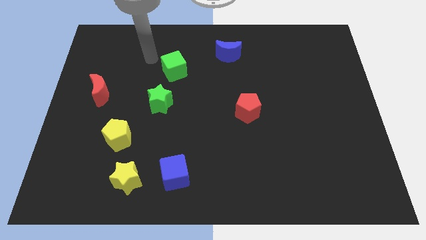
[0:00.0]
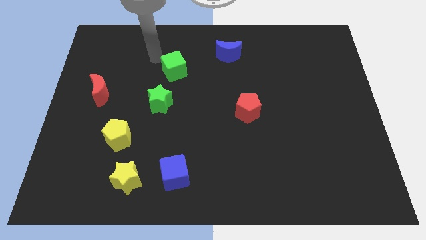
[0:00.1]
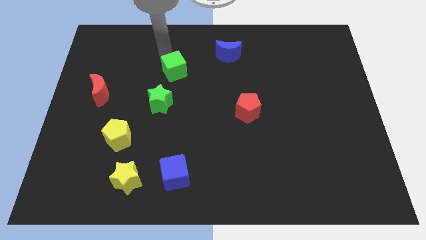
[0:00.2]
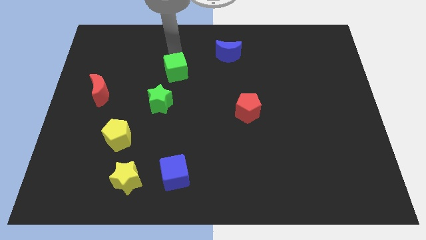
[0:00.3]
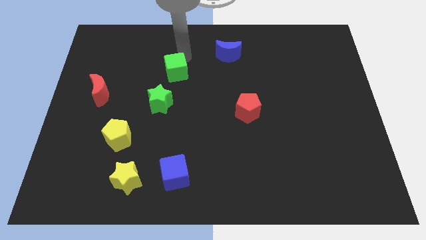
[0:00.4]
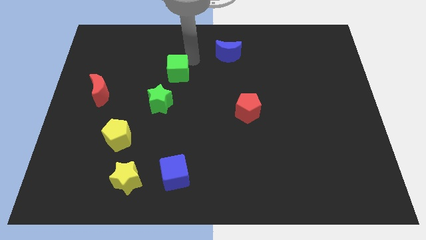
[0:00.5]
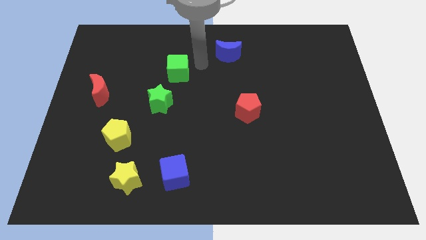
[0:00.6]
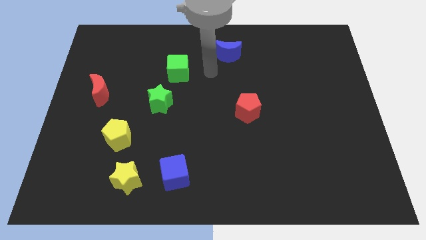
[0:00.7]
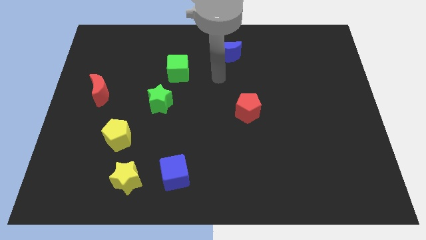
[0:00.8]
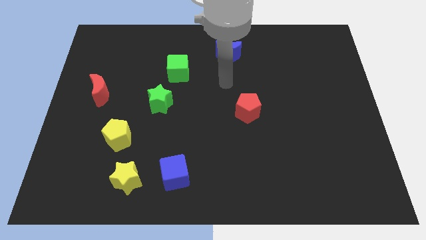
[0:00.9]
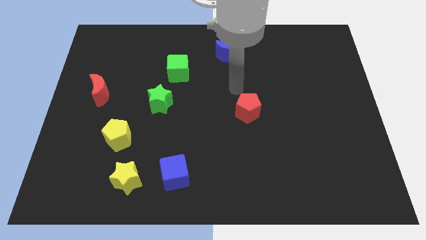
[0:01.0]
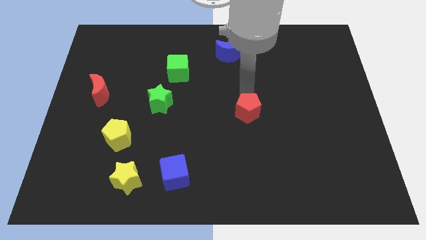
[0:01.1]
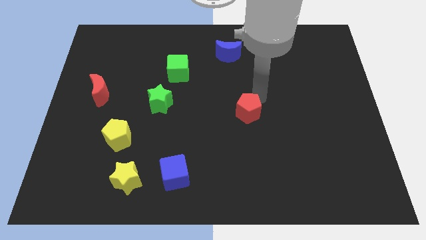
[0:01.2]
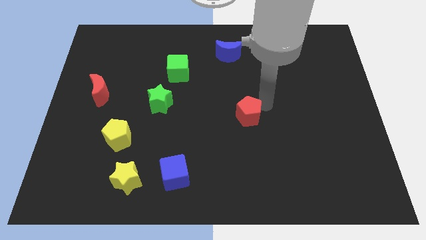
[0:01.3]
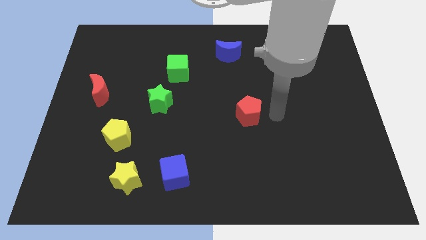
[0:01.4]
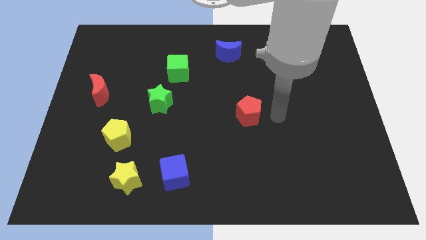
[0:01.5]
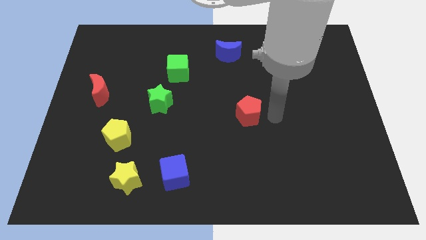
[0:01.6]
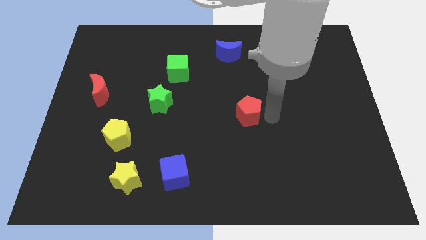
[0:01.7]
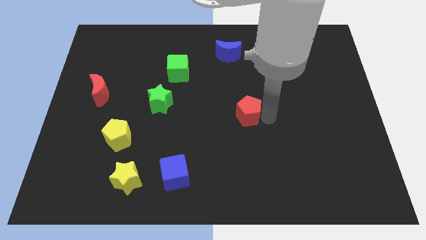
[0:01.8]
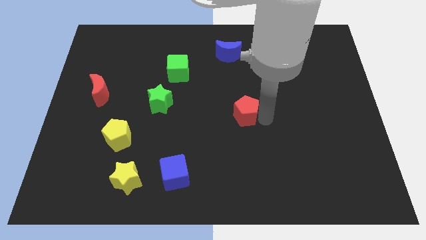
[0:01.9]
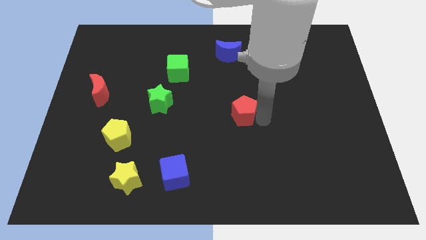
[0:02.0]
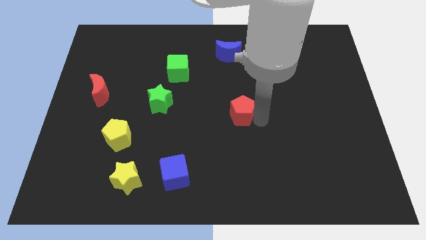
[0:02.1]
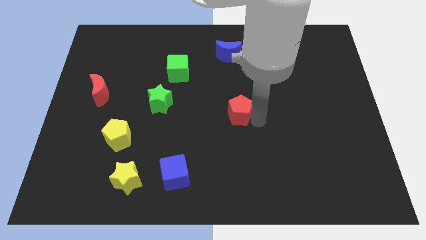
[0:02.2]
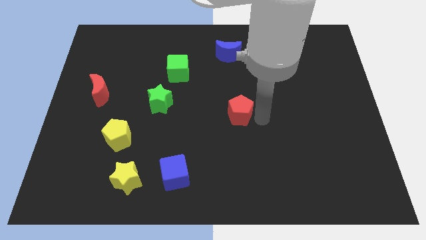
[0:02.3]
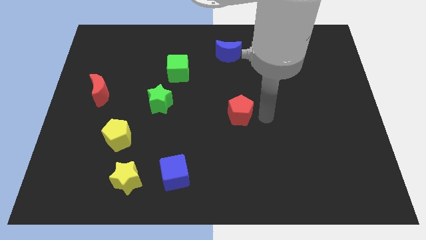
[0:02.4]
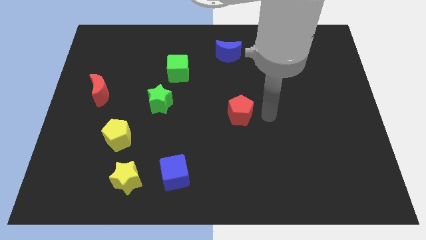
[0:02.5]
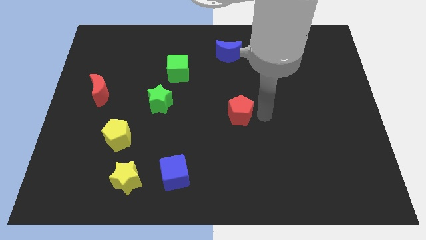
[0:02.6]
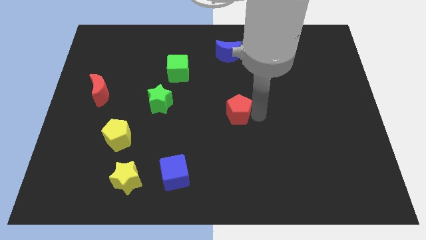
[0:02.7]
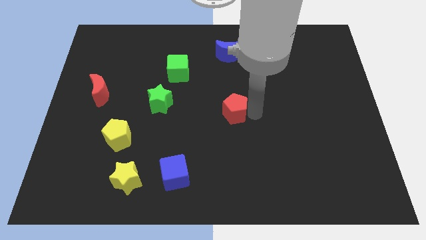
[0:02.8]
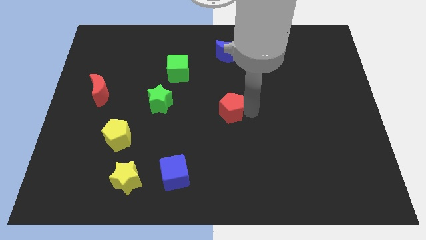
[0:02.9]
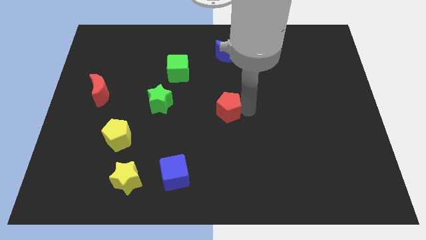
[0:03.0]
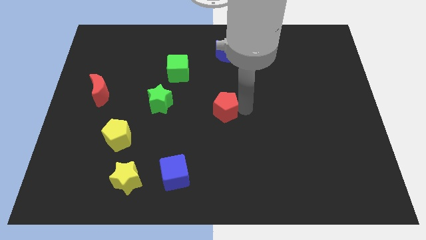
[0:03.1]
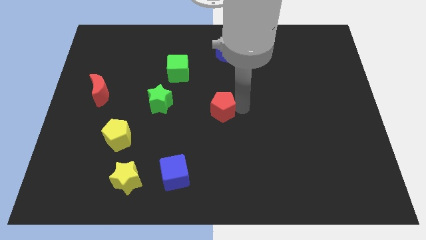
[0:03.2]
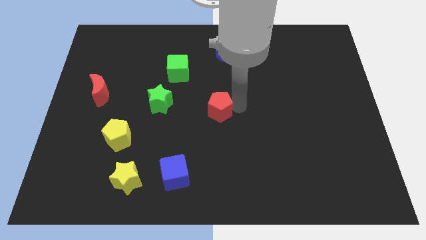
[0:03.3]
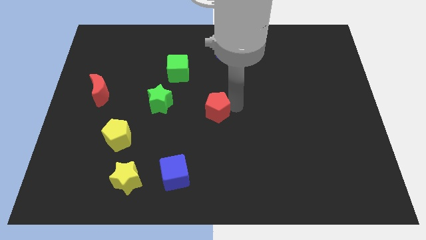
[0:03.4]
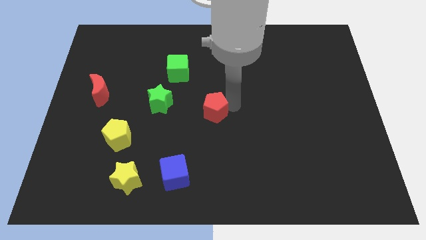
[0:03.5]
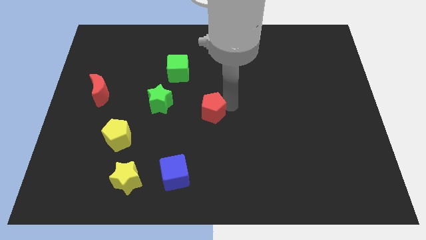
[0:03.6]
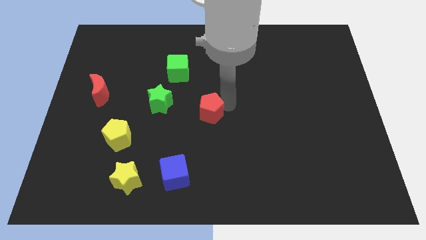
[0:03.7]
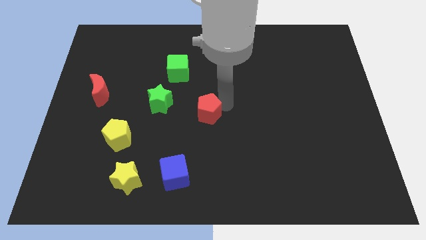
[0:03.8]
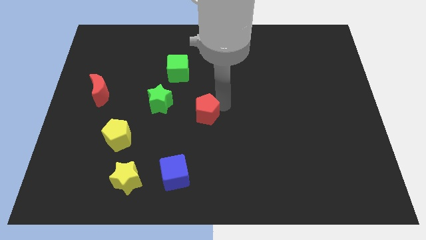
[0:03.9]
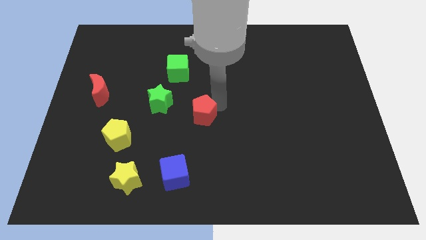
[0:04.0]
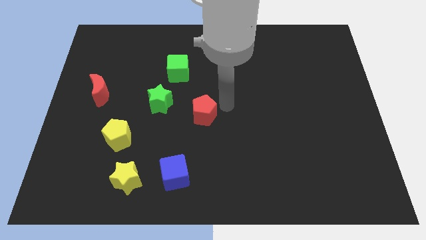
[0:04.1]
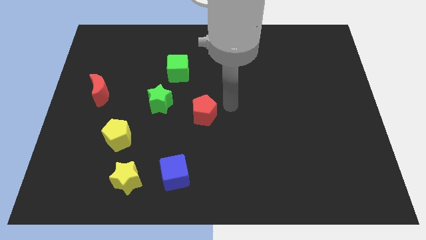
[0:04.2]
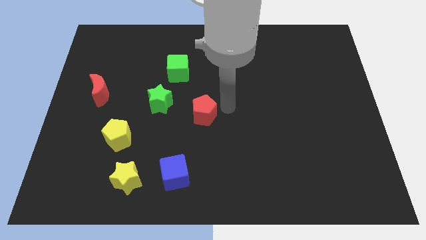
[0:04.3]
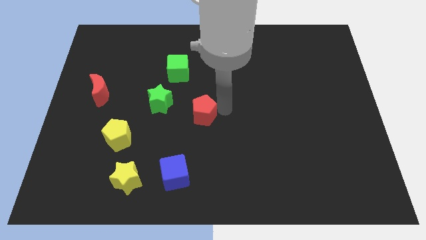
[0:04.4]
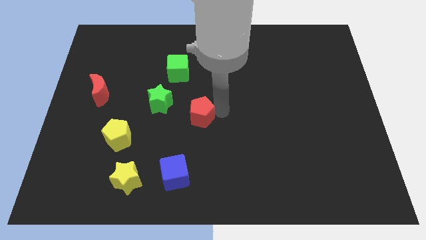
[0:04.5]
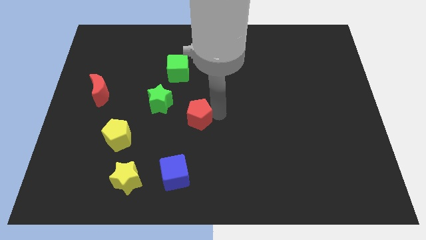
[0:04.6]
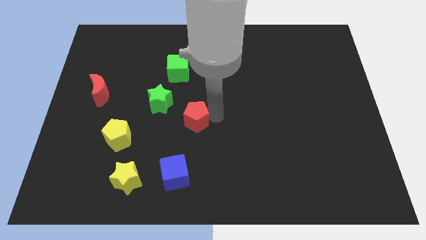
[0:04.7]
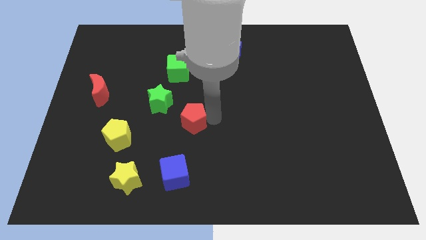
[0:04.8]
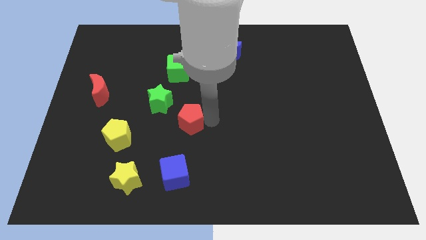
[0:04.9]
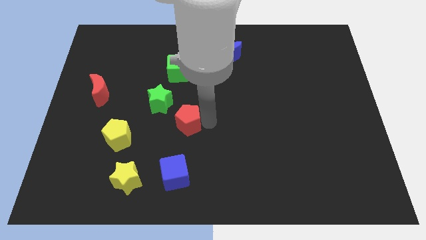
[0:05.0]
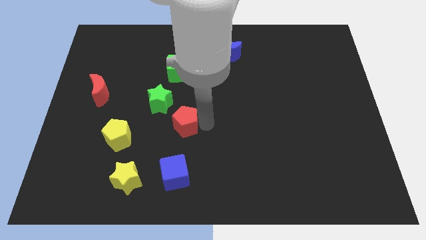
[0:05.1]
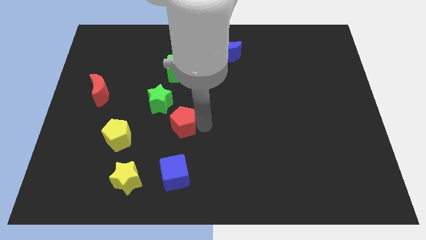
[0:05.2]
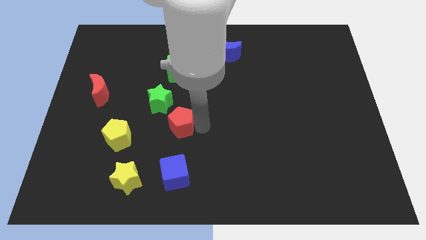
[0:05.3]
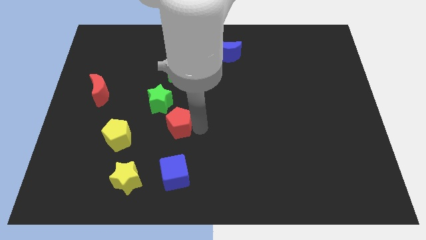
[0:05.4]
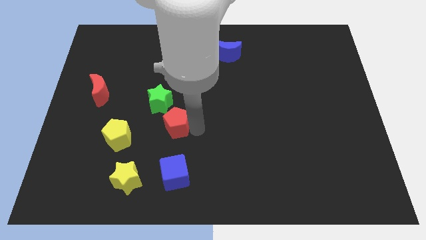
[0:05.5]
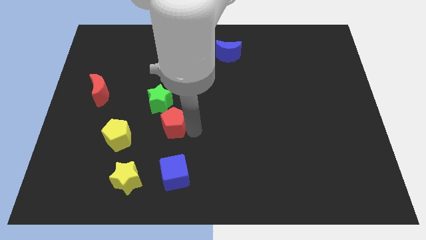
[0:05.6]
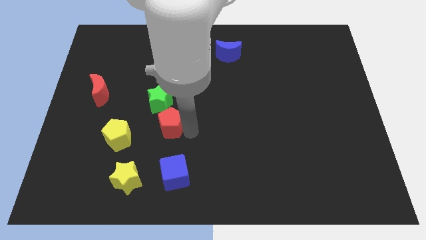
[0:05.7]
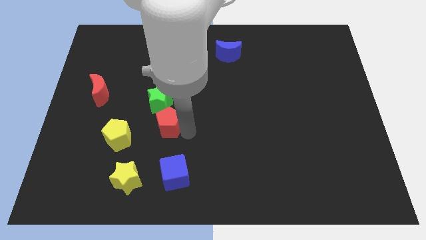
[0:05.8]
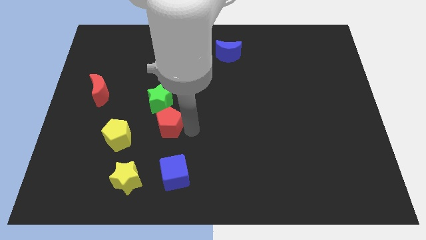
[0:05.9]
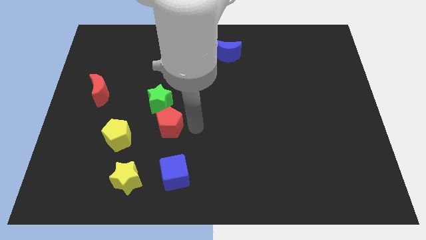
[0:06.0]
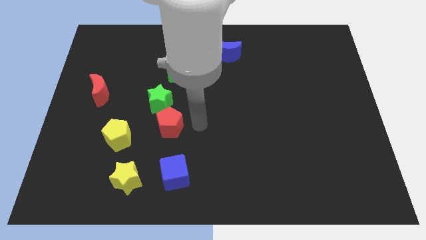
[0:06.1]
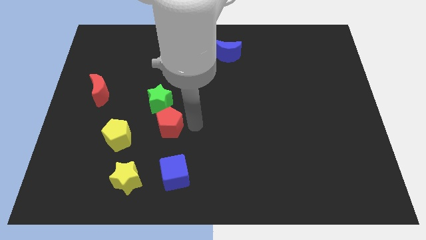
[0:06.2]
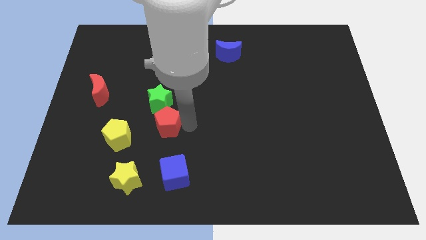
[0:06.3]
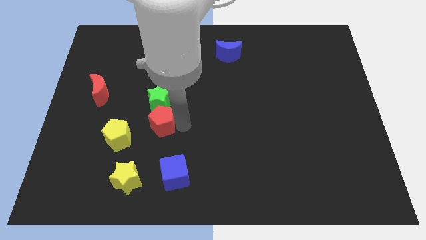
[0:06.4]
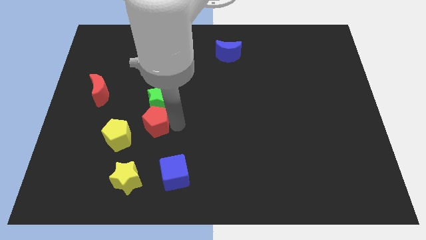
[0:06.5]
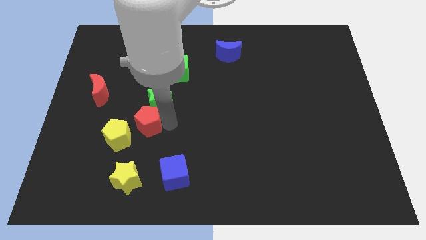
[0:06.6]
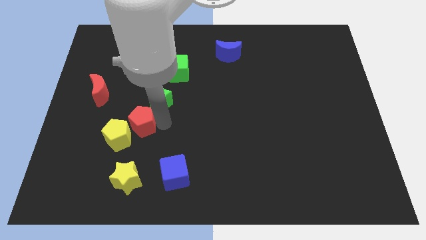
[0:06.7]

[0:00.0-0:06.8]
put the red pentagon to the yellow pentagon

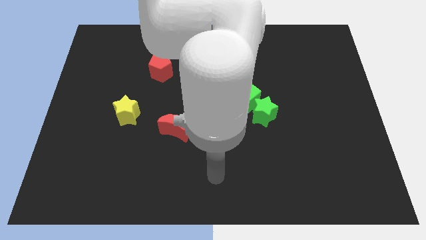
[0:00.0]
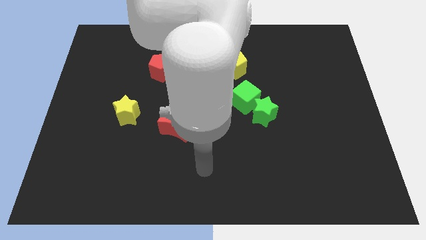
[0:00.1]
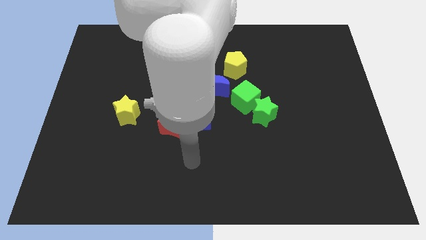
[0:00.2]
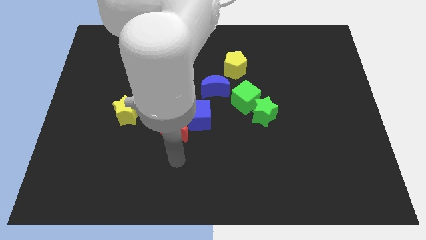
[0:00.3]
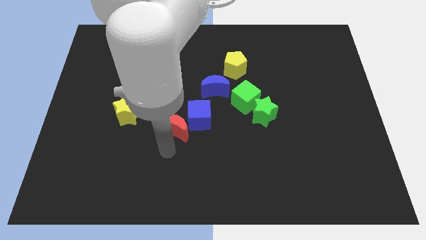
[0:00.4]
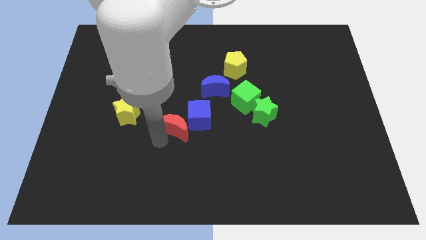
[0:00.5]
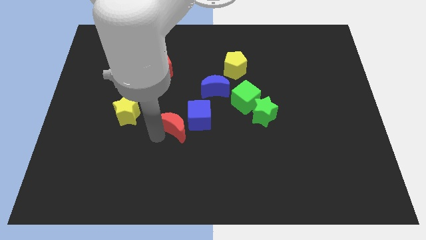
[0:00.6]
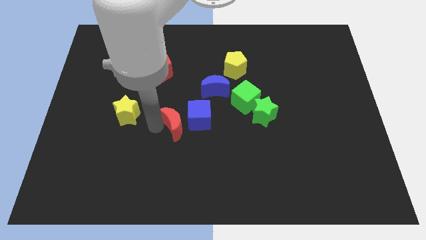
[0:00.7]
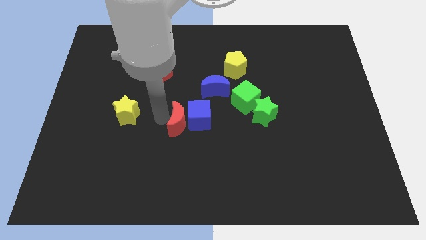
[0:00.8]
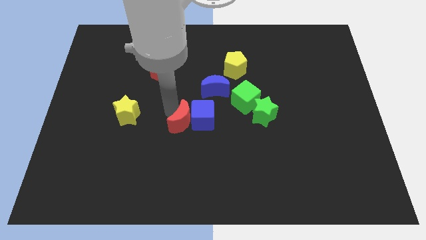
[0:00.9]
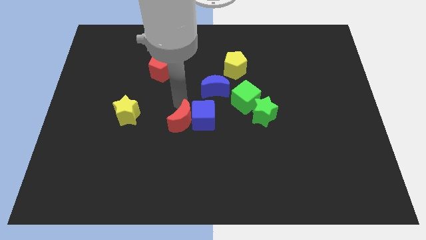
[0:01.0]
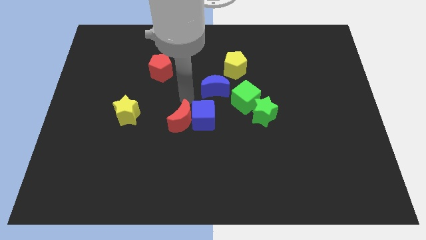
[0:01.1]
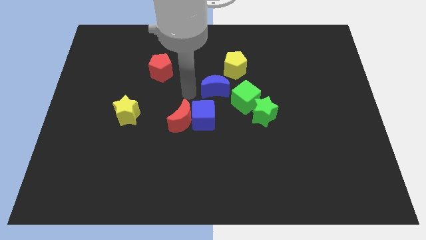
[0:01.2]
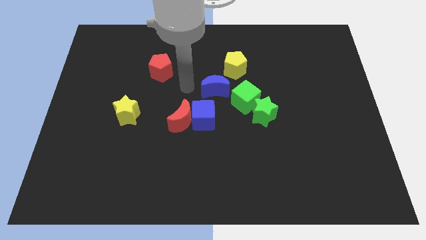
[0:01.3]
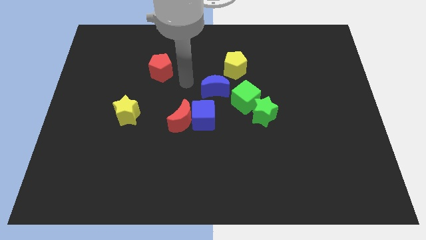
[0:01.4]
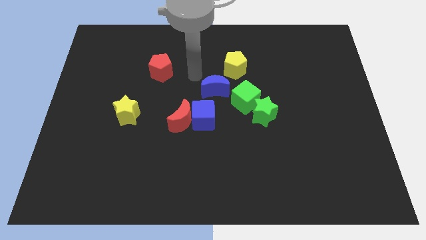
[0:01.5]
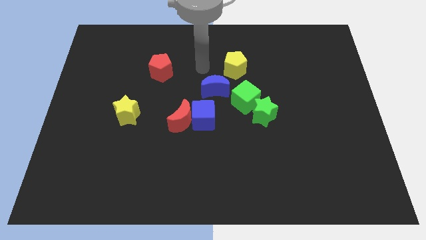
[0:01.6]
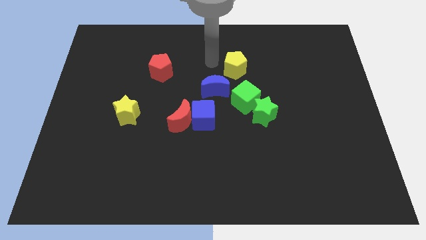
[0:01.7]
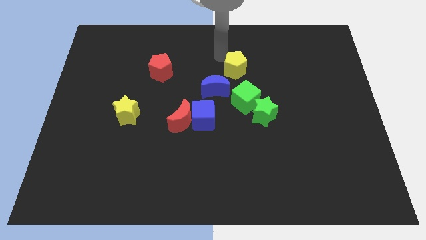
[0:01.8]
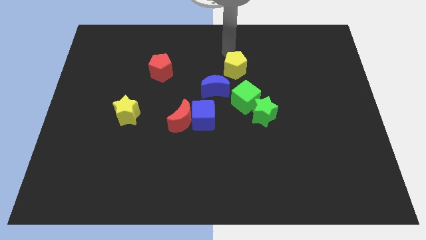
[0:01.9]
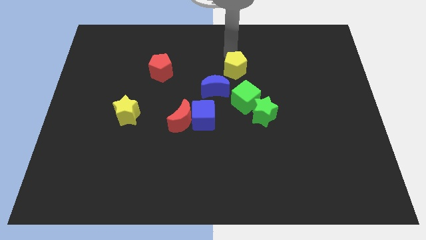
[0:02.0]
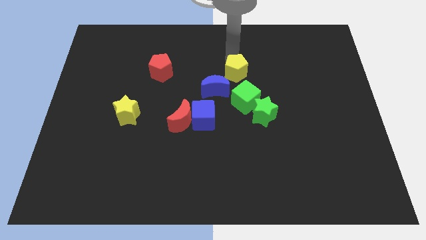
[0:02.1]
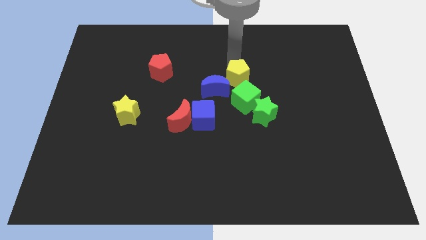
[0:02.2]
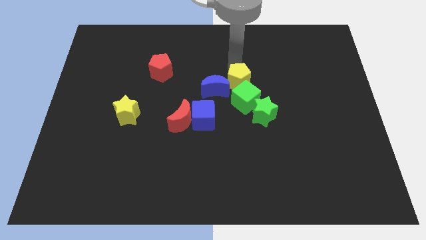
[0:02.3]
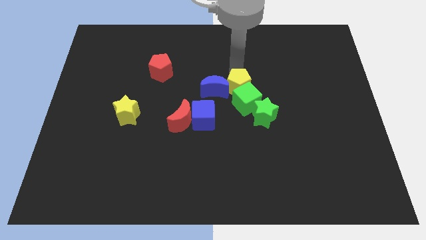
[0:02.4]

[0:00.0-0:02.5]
slide the yellow pentagon towards the green cube
